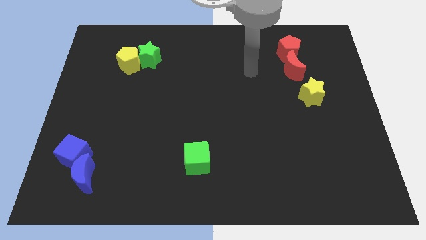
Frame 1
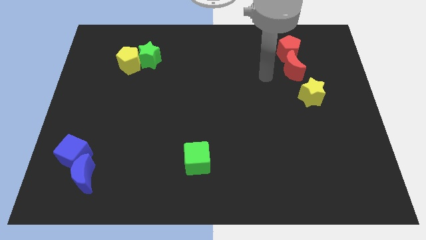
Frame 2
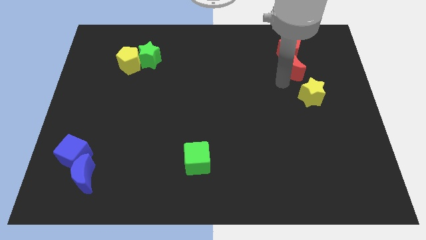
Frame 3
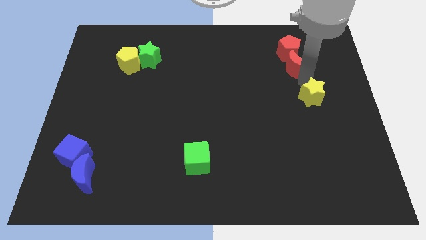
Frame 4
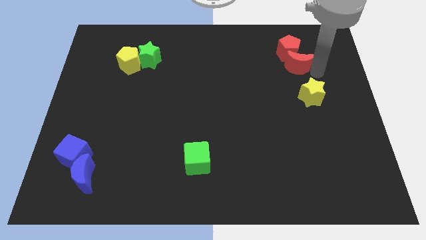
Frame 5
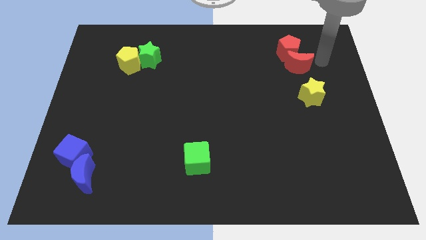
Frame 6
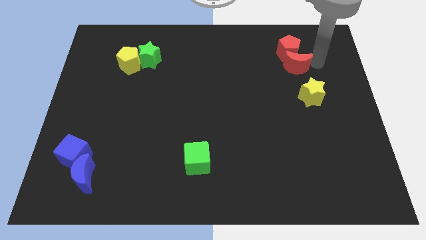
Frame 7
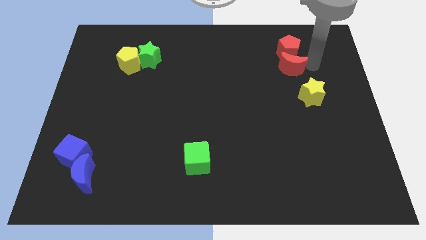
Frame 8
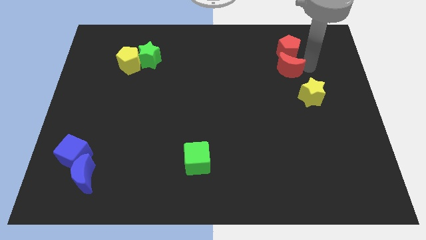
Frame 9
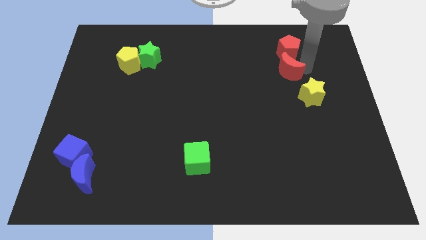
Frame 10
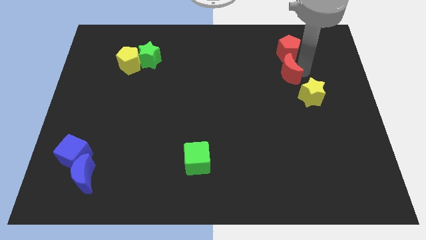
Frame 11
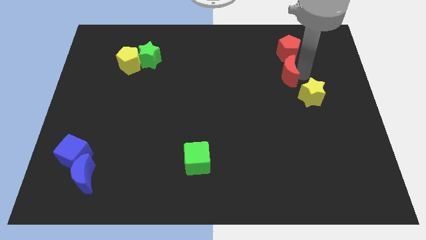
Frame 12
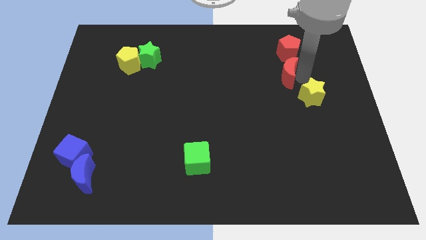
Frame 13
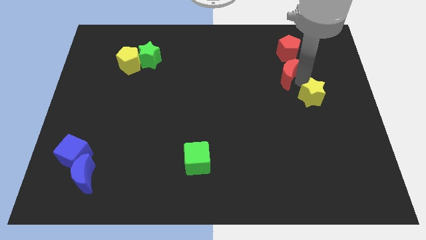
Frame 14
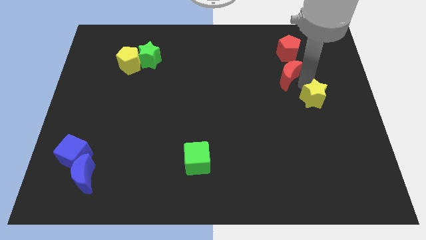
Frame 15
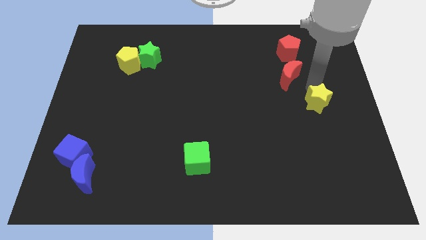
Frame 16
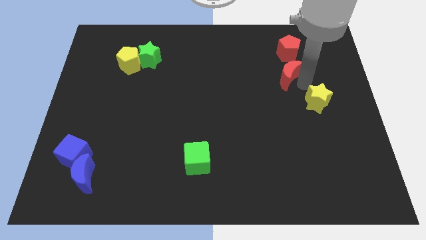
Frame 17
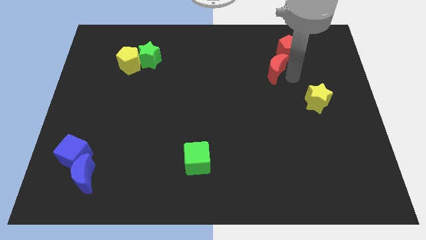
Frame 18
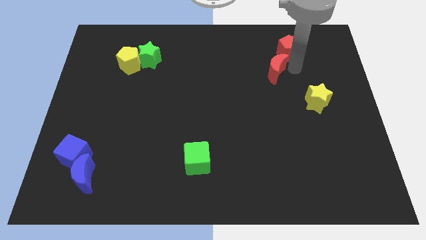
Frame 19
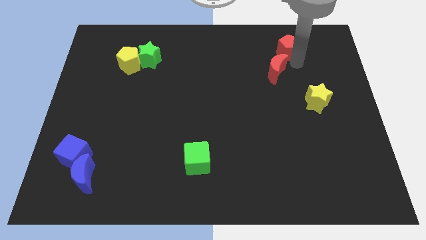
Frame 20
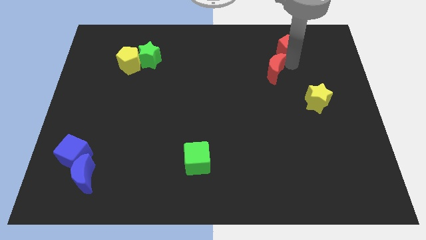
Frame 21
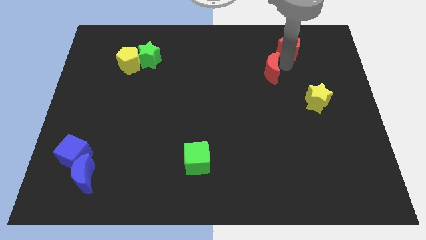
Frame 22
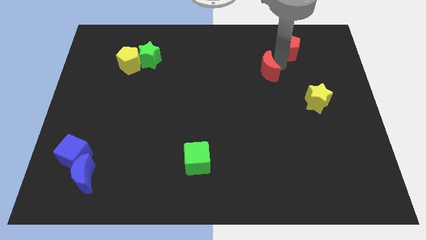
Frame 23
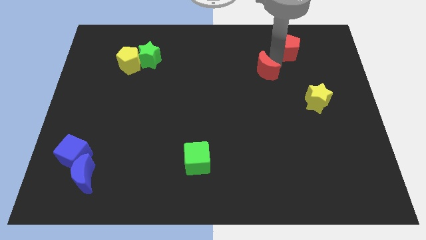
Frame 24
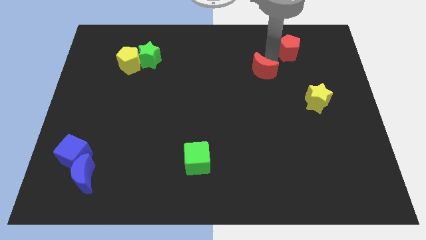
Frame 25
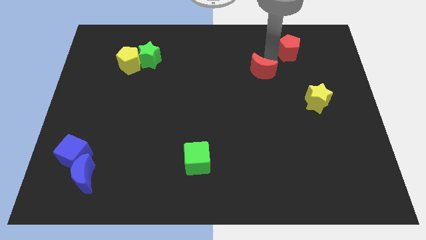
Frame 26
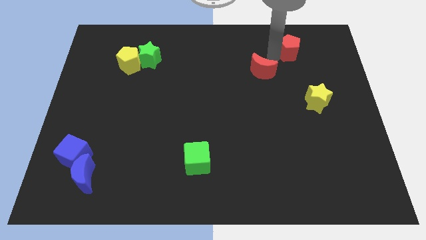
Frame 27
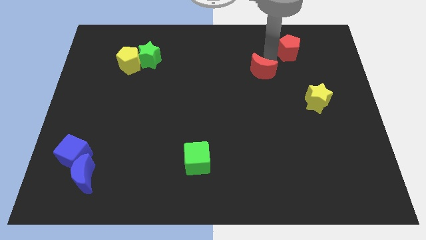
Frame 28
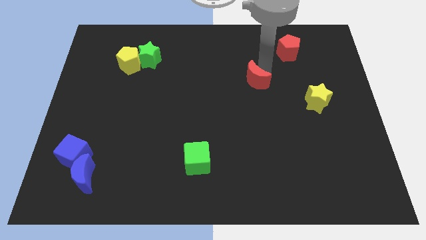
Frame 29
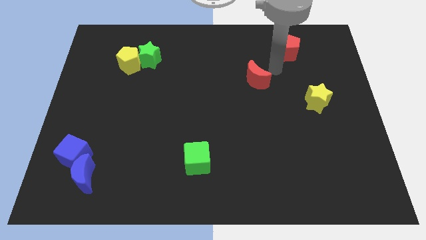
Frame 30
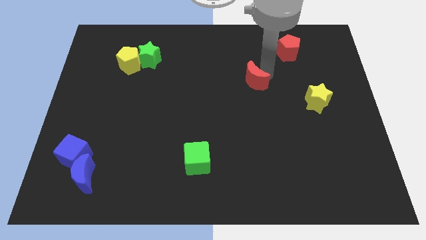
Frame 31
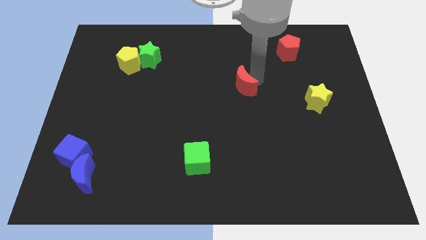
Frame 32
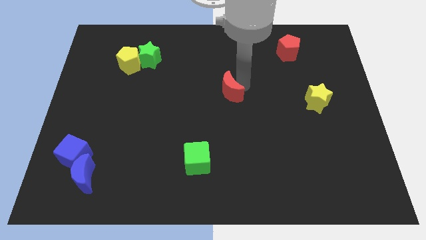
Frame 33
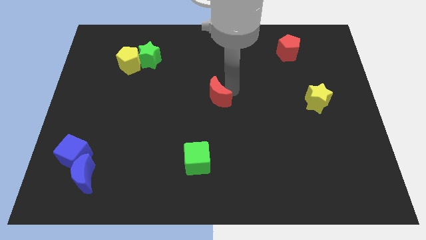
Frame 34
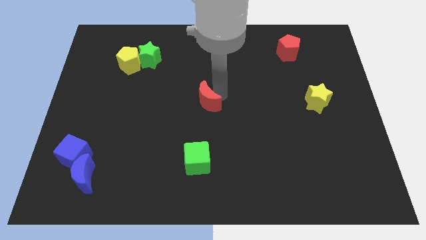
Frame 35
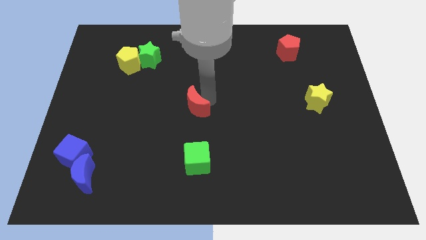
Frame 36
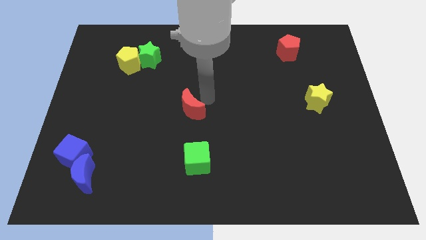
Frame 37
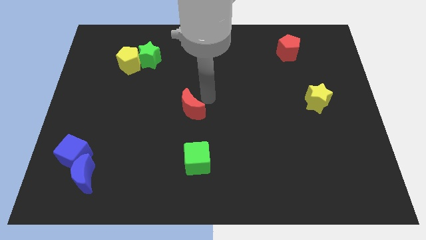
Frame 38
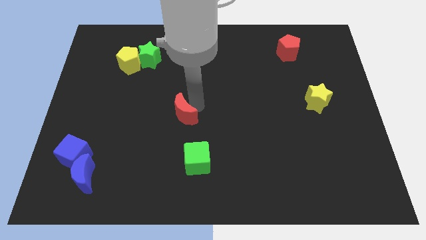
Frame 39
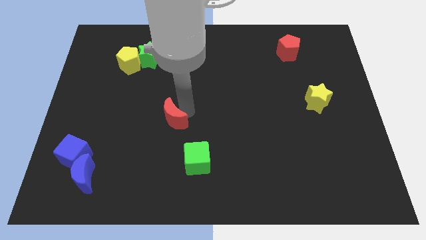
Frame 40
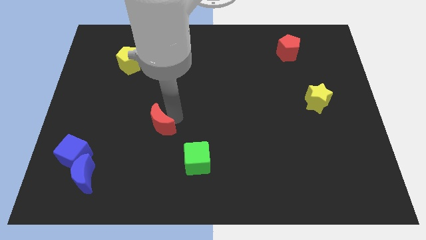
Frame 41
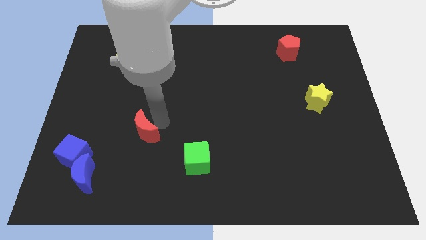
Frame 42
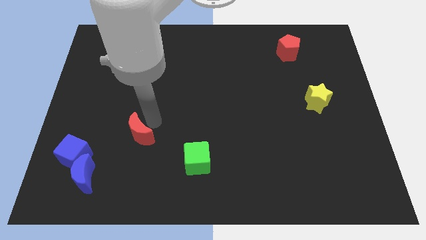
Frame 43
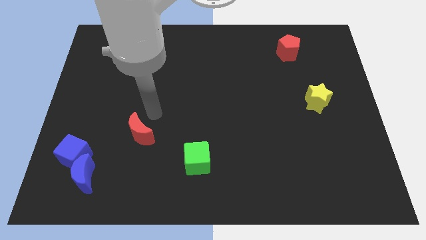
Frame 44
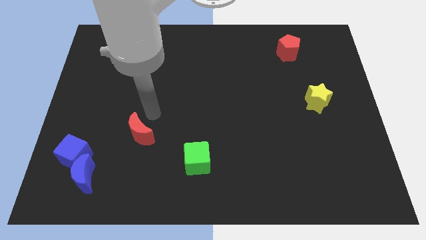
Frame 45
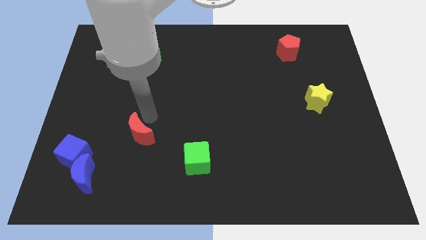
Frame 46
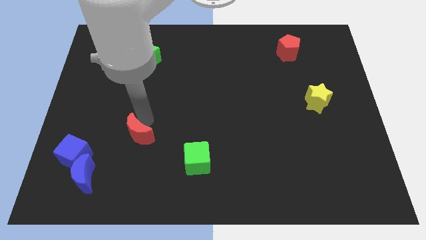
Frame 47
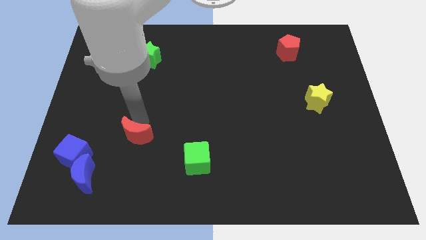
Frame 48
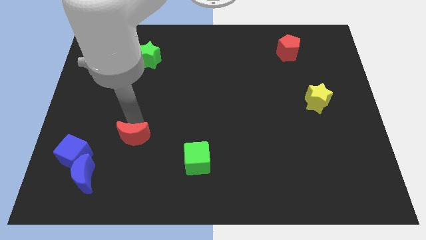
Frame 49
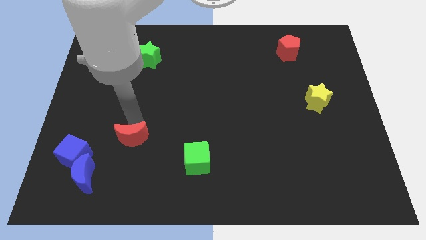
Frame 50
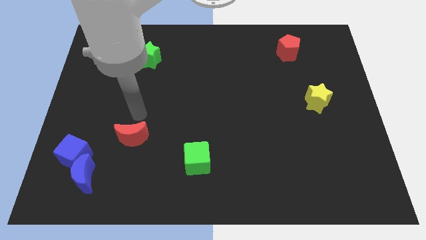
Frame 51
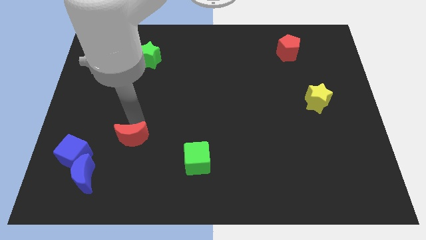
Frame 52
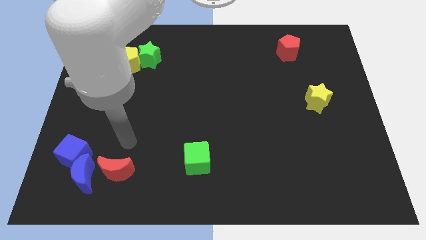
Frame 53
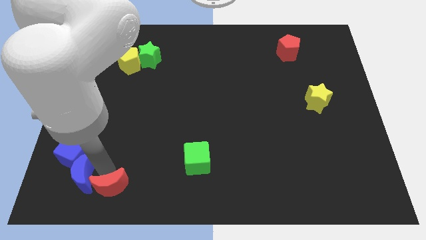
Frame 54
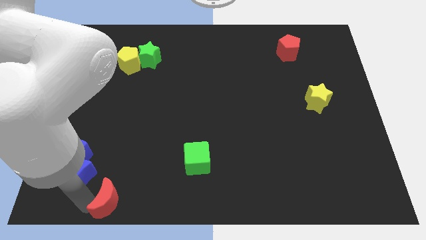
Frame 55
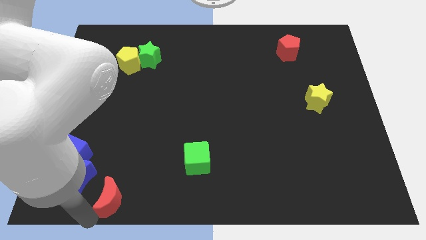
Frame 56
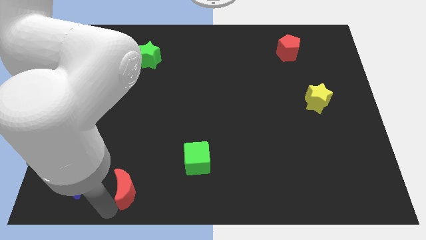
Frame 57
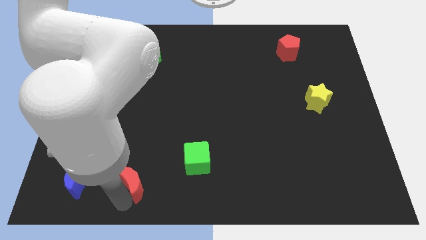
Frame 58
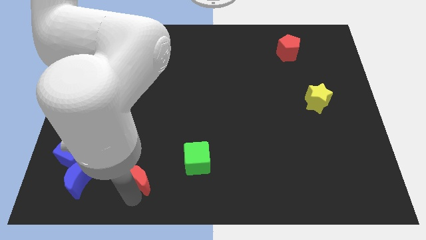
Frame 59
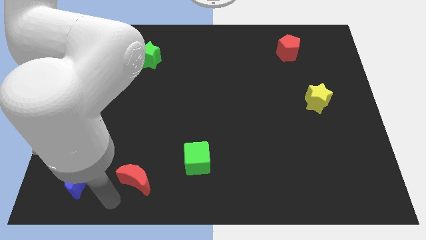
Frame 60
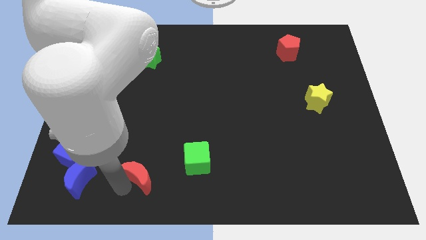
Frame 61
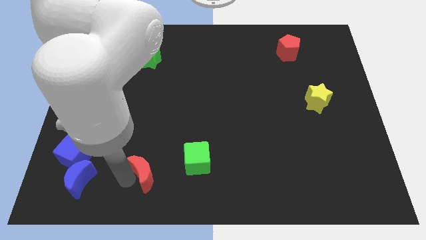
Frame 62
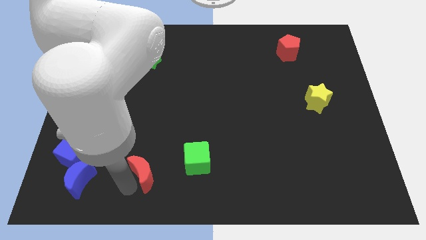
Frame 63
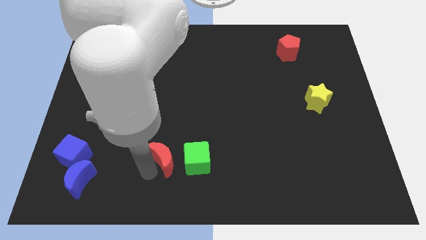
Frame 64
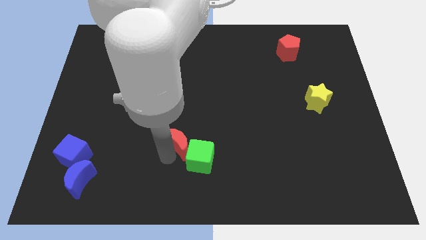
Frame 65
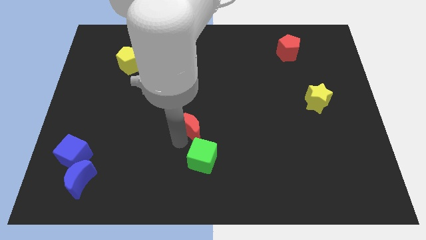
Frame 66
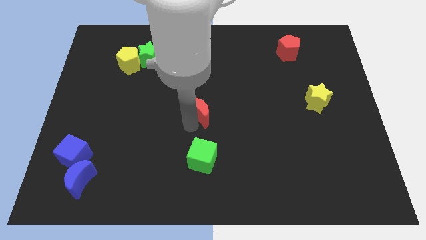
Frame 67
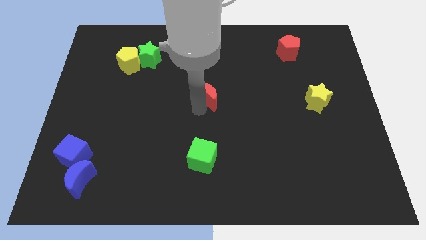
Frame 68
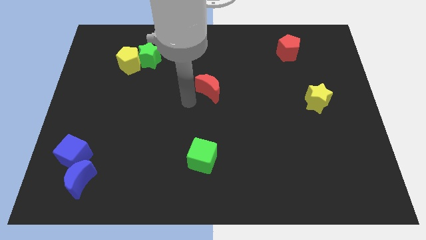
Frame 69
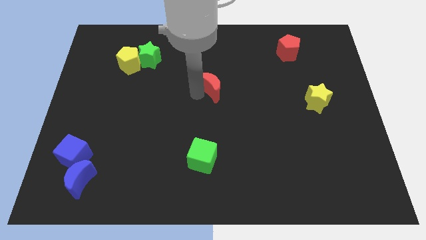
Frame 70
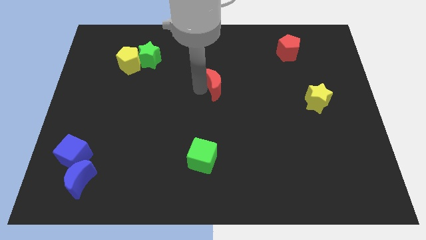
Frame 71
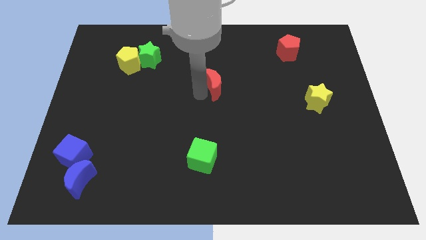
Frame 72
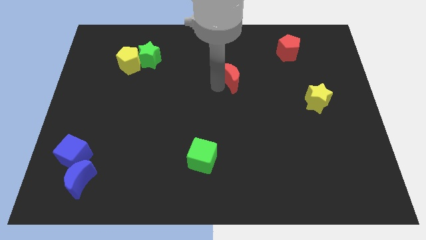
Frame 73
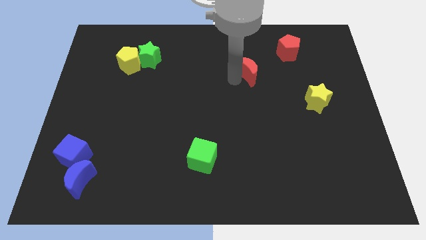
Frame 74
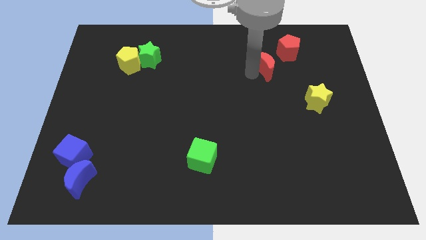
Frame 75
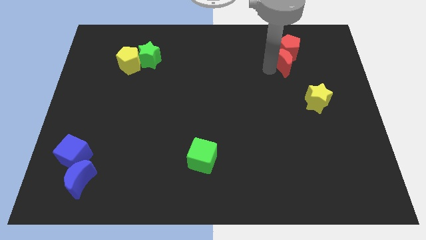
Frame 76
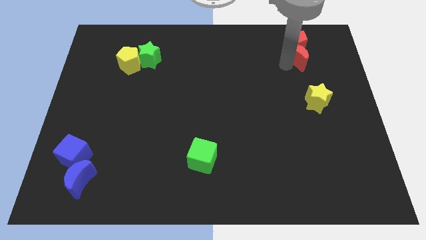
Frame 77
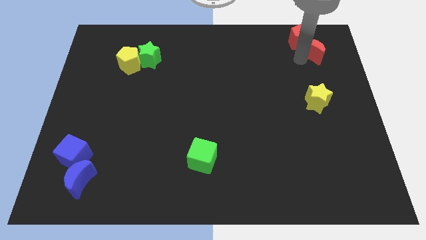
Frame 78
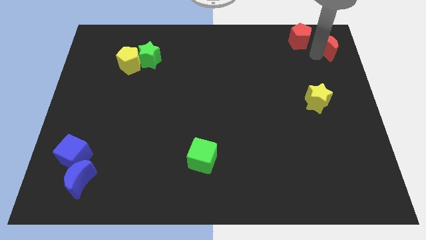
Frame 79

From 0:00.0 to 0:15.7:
put the red moon to the top right
